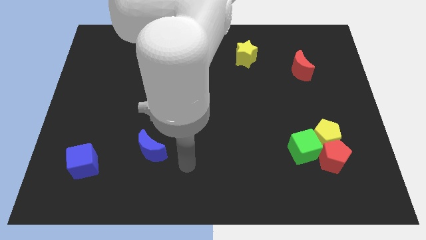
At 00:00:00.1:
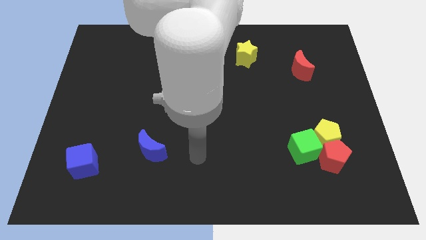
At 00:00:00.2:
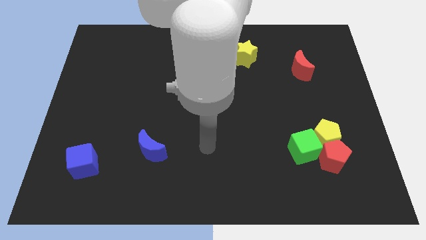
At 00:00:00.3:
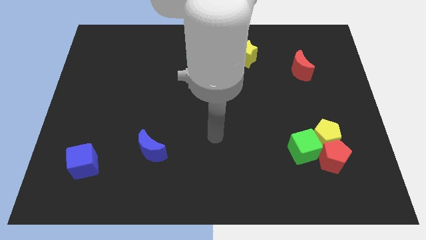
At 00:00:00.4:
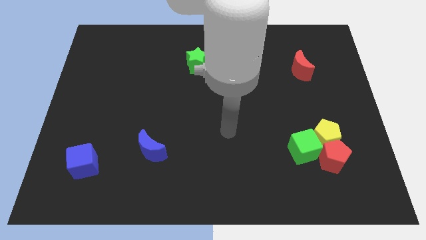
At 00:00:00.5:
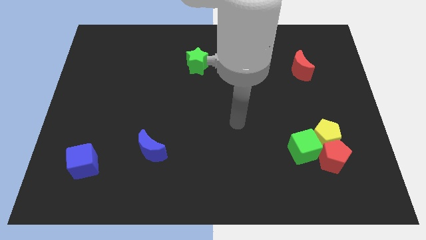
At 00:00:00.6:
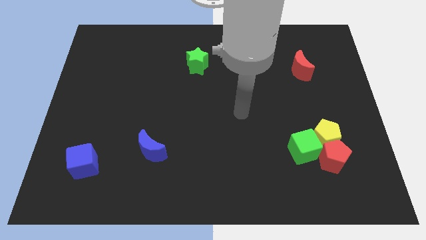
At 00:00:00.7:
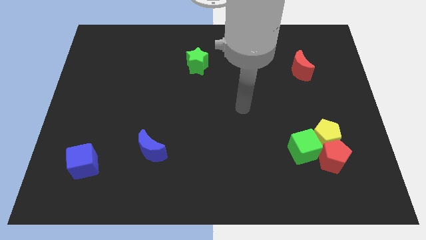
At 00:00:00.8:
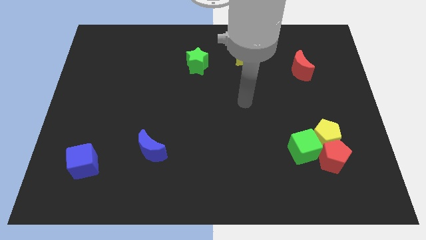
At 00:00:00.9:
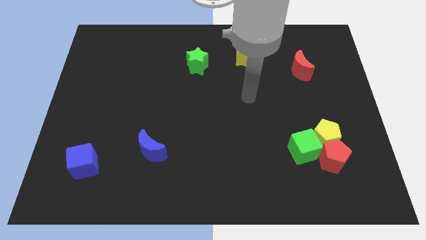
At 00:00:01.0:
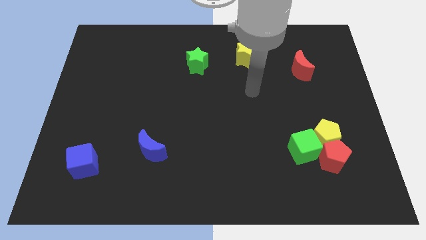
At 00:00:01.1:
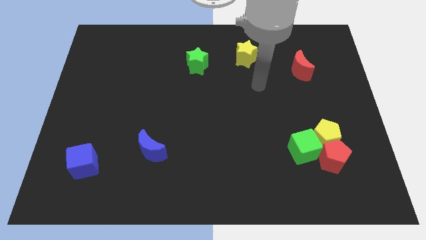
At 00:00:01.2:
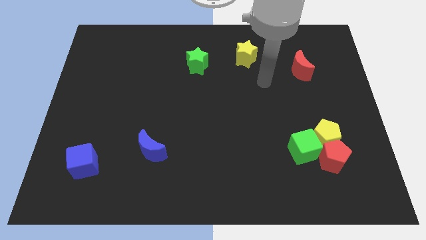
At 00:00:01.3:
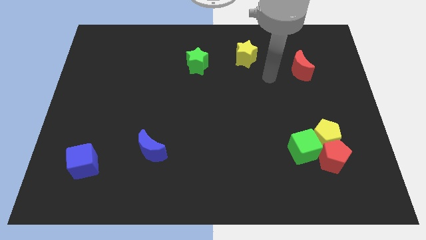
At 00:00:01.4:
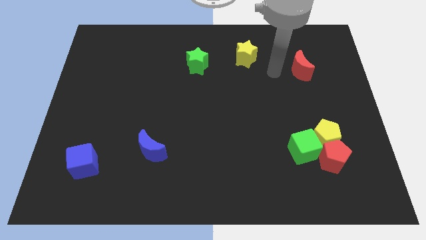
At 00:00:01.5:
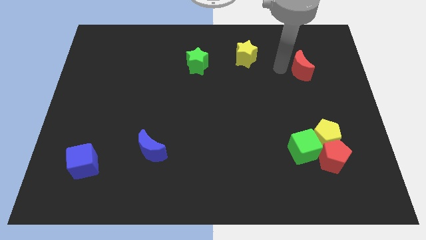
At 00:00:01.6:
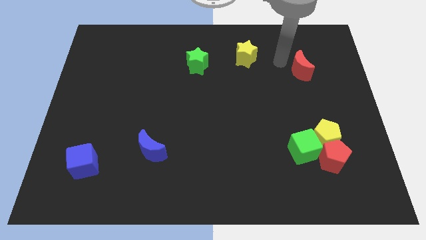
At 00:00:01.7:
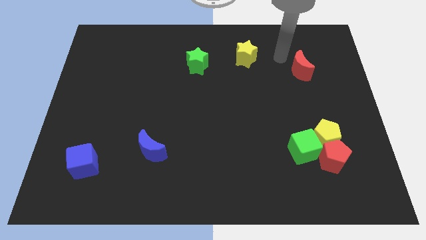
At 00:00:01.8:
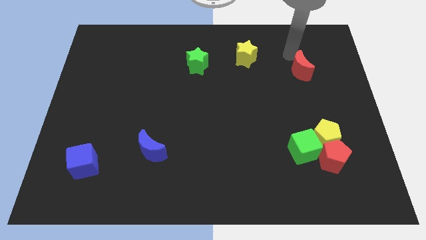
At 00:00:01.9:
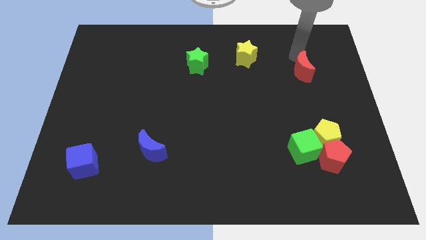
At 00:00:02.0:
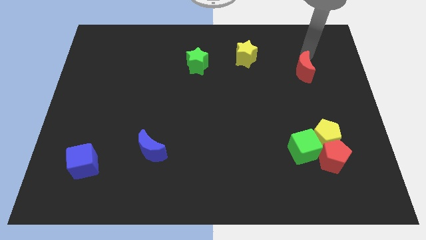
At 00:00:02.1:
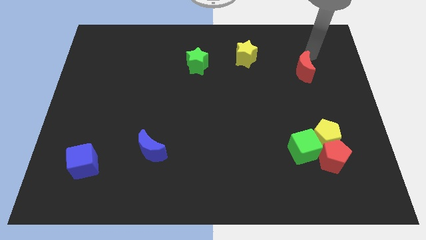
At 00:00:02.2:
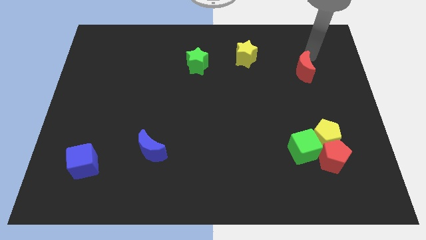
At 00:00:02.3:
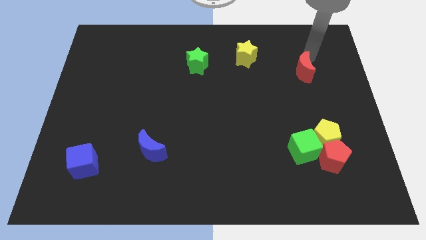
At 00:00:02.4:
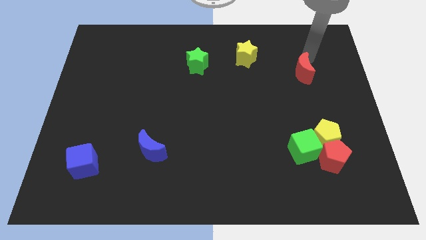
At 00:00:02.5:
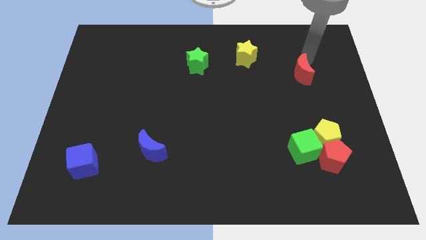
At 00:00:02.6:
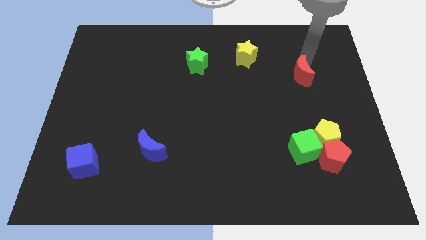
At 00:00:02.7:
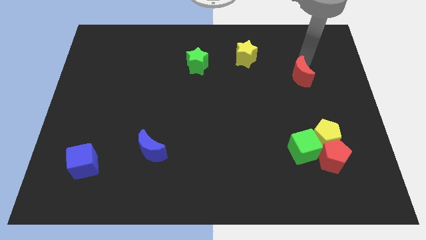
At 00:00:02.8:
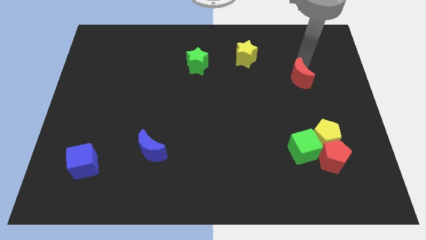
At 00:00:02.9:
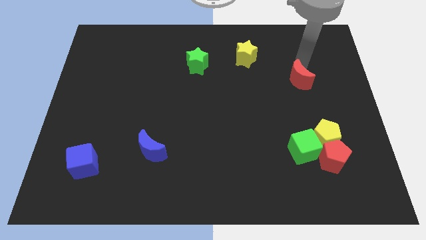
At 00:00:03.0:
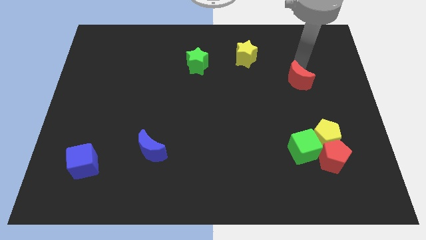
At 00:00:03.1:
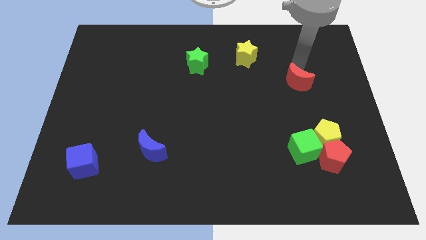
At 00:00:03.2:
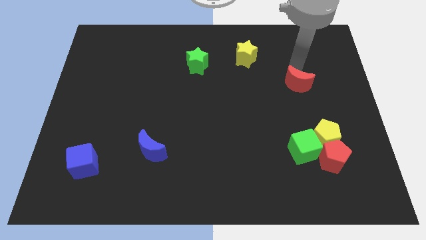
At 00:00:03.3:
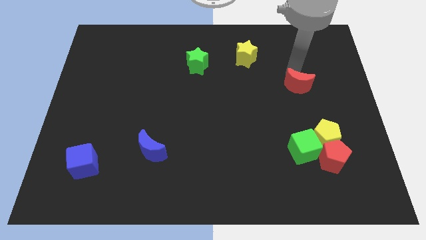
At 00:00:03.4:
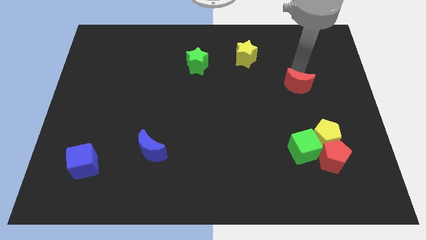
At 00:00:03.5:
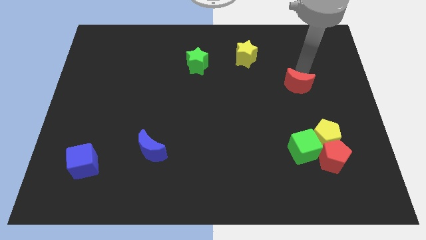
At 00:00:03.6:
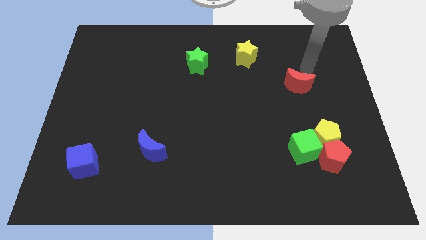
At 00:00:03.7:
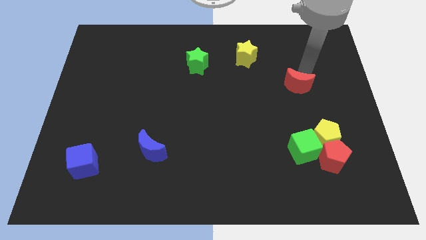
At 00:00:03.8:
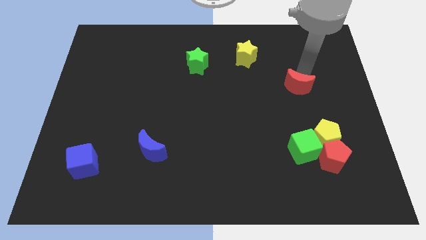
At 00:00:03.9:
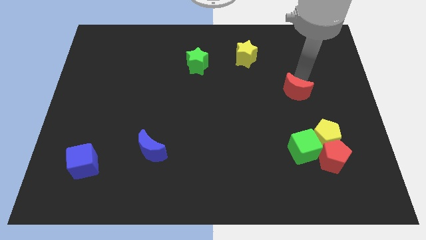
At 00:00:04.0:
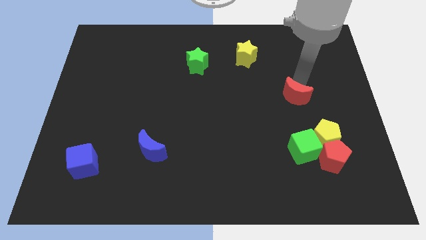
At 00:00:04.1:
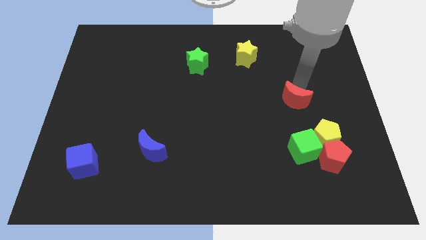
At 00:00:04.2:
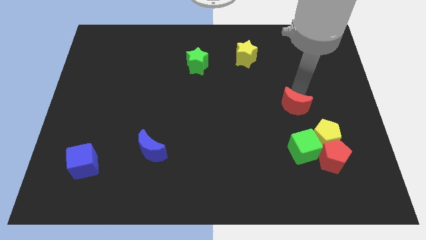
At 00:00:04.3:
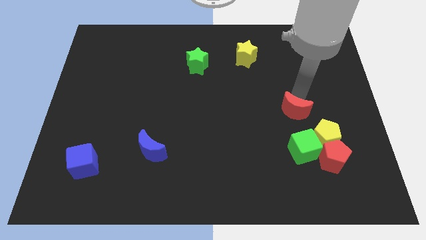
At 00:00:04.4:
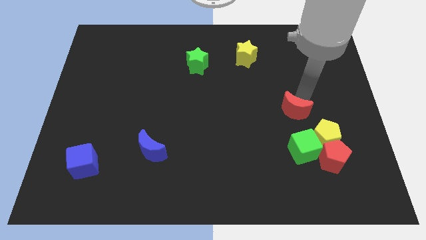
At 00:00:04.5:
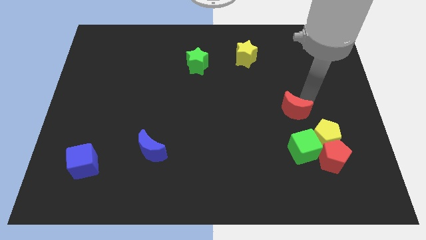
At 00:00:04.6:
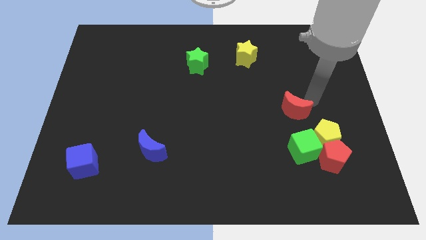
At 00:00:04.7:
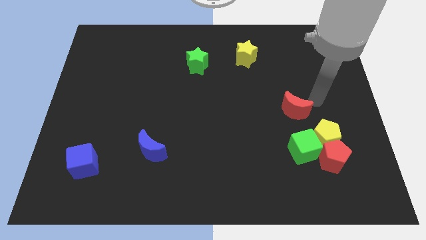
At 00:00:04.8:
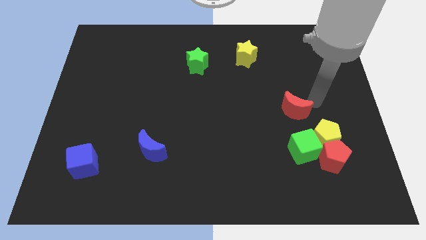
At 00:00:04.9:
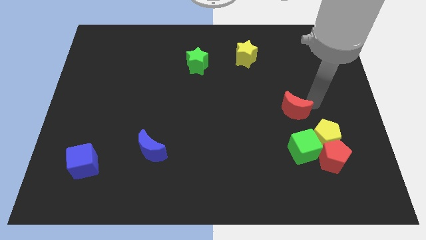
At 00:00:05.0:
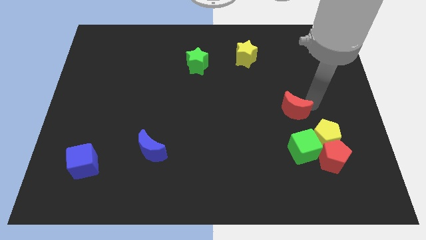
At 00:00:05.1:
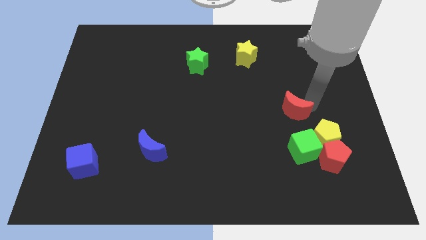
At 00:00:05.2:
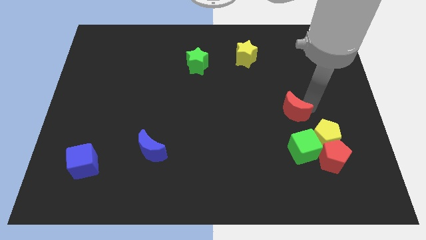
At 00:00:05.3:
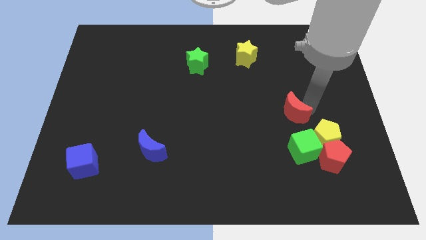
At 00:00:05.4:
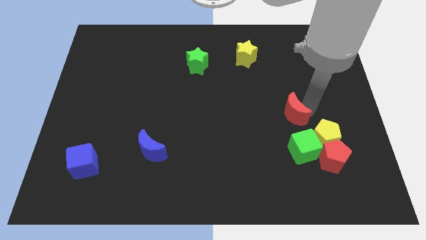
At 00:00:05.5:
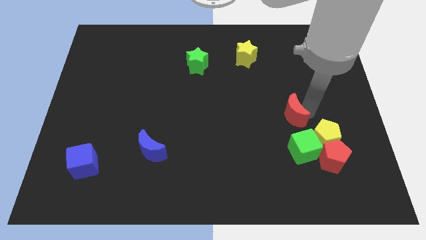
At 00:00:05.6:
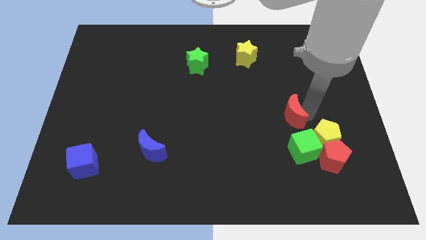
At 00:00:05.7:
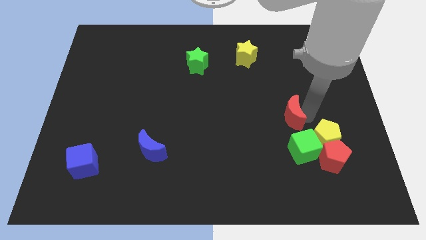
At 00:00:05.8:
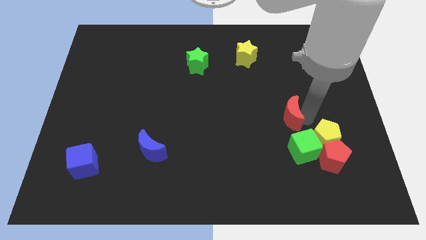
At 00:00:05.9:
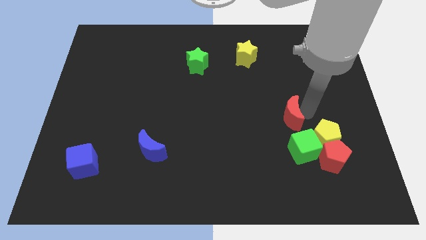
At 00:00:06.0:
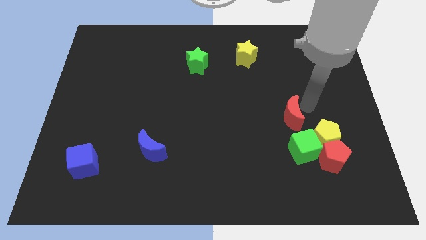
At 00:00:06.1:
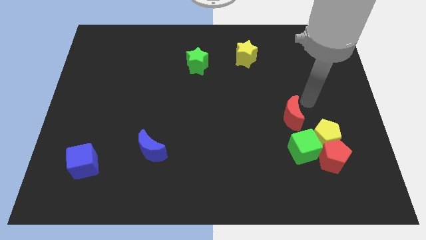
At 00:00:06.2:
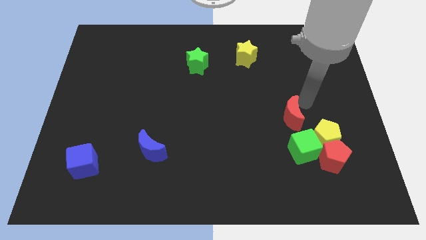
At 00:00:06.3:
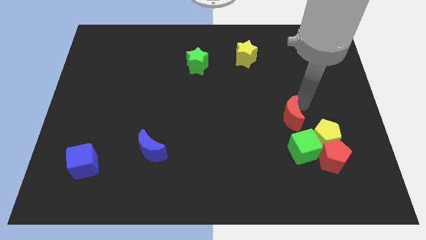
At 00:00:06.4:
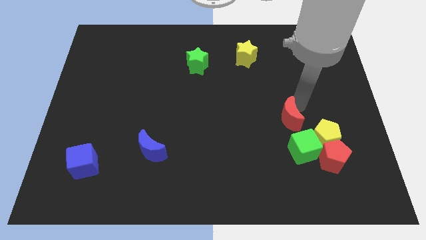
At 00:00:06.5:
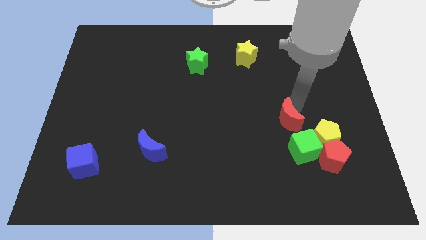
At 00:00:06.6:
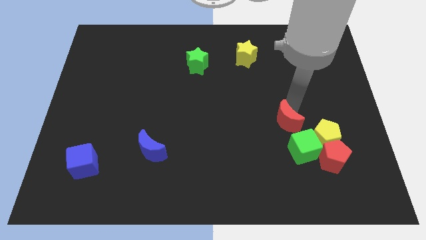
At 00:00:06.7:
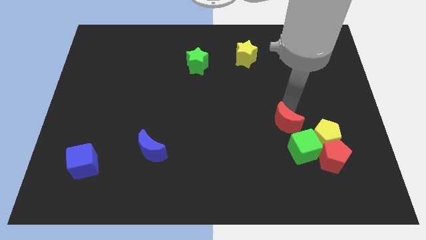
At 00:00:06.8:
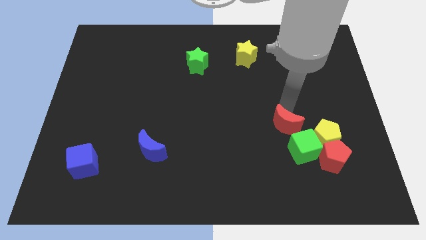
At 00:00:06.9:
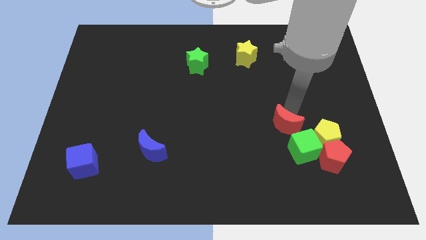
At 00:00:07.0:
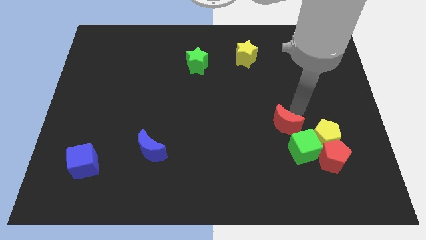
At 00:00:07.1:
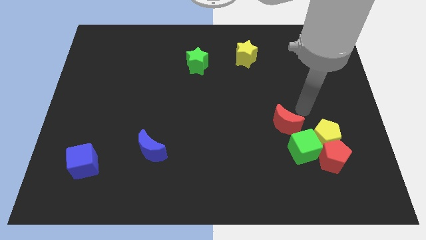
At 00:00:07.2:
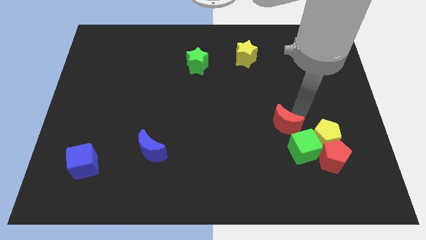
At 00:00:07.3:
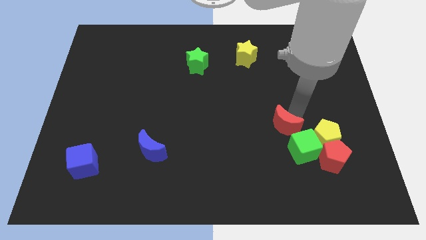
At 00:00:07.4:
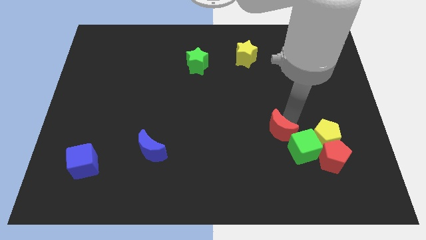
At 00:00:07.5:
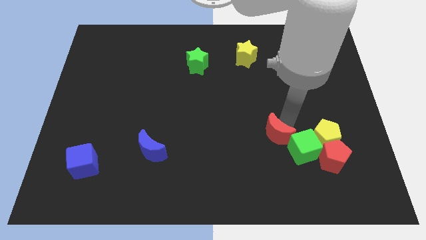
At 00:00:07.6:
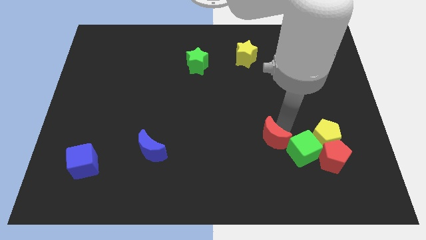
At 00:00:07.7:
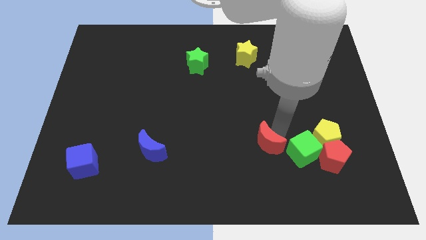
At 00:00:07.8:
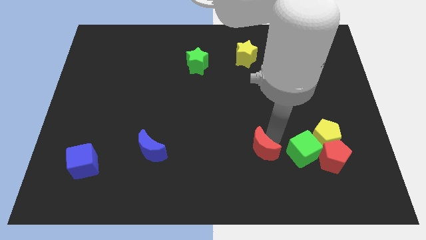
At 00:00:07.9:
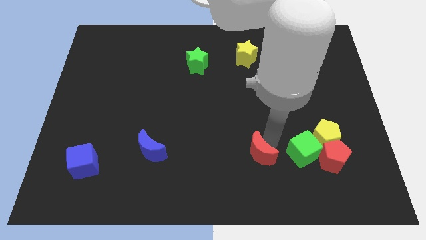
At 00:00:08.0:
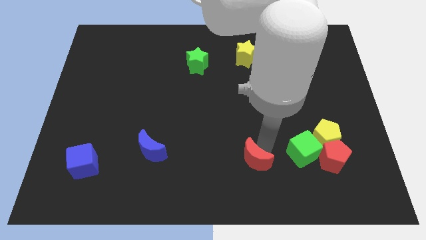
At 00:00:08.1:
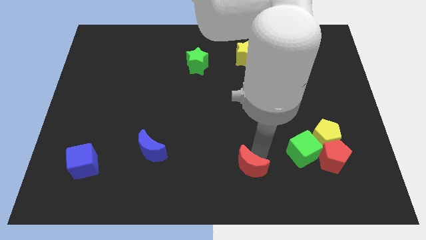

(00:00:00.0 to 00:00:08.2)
slide the red moon to the bottom
